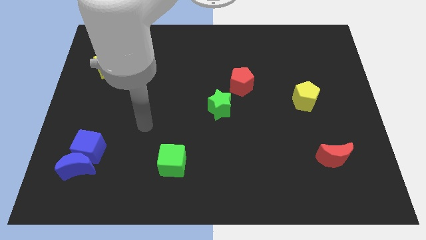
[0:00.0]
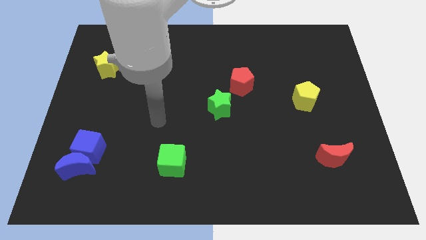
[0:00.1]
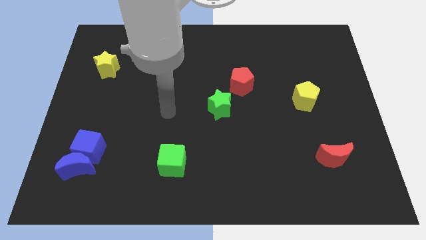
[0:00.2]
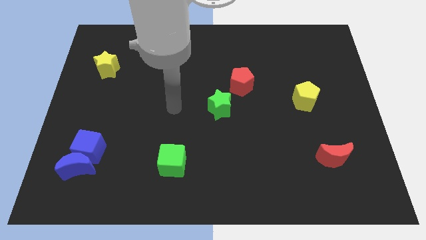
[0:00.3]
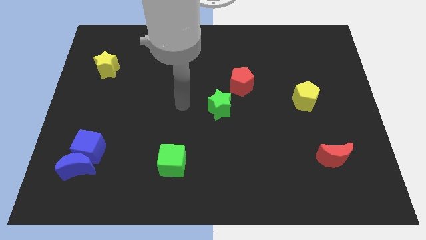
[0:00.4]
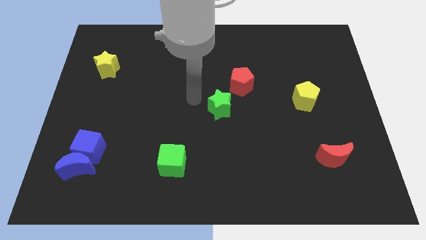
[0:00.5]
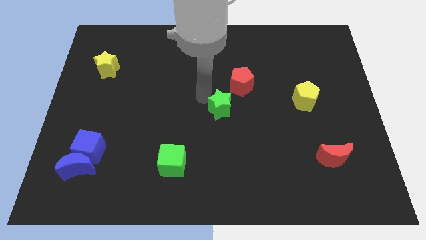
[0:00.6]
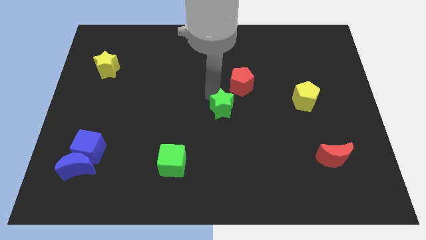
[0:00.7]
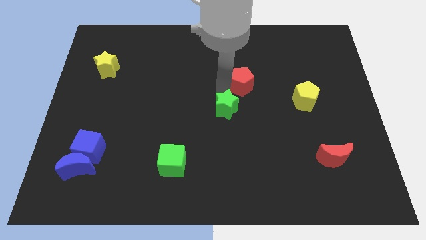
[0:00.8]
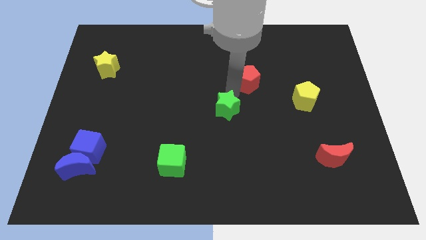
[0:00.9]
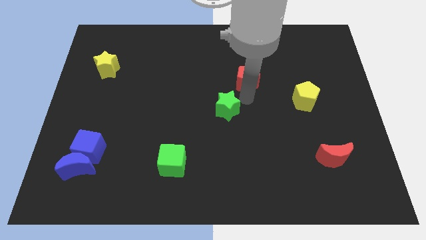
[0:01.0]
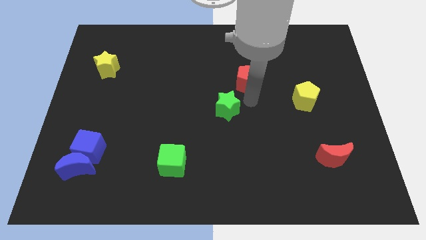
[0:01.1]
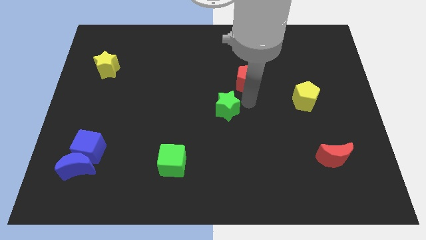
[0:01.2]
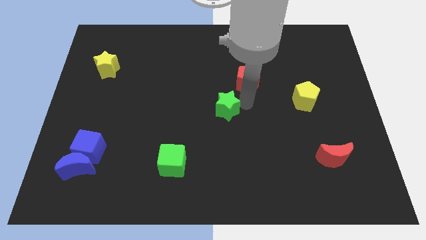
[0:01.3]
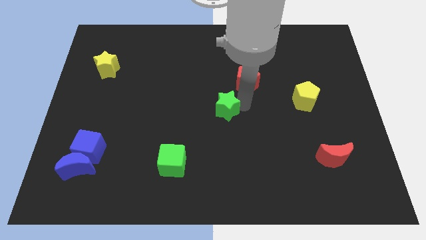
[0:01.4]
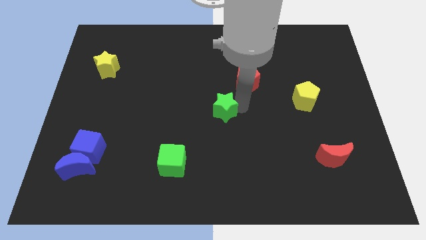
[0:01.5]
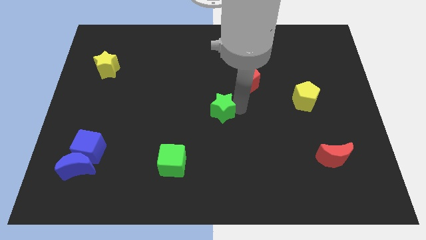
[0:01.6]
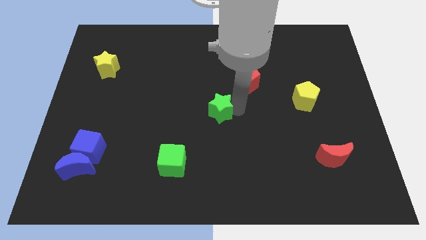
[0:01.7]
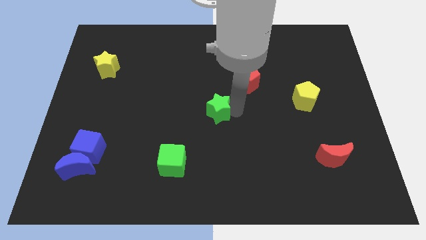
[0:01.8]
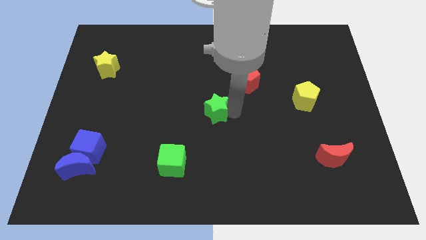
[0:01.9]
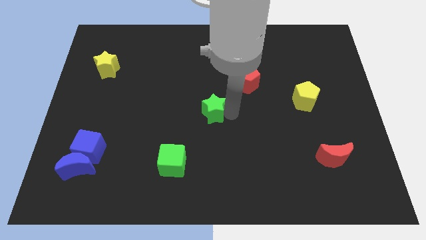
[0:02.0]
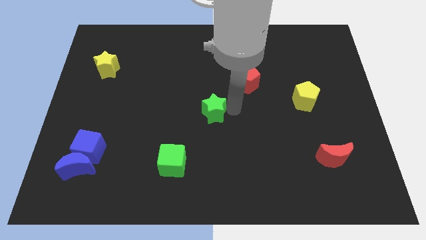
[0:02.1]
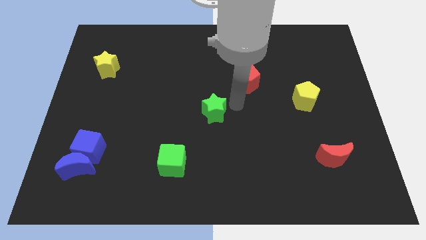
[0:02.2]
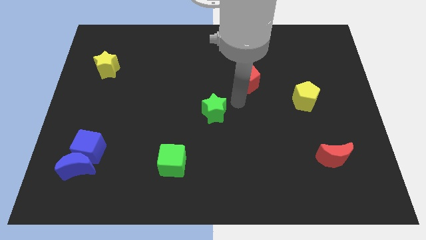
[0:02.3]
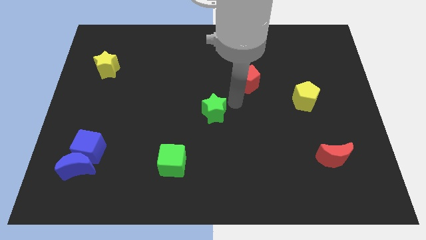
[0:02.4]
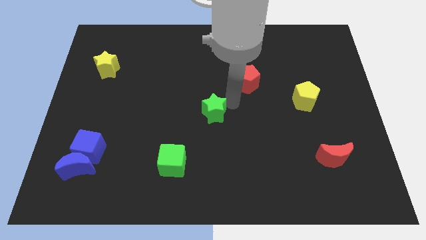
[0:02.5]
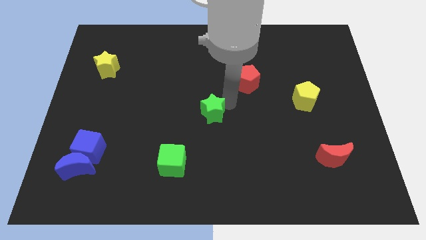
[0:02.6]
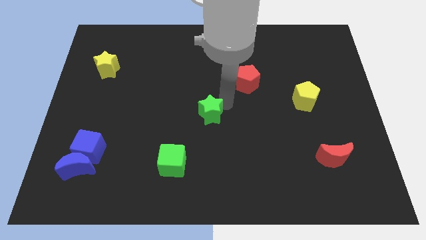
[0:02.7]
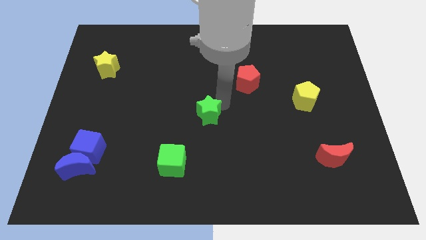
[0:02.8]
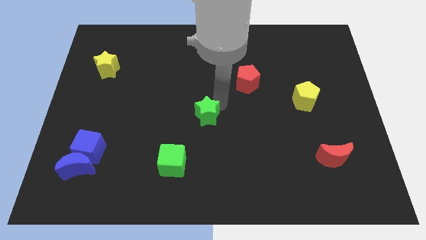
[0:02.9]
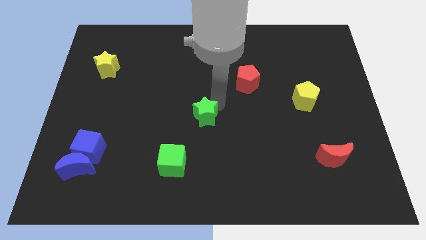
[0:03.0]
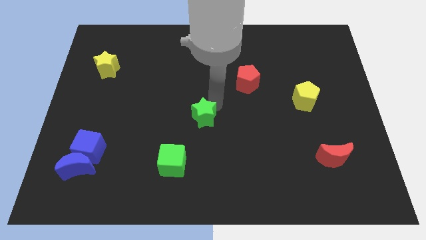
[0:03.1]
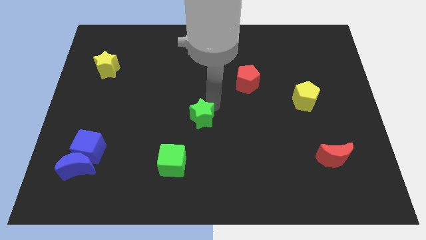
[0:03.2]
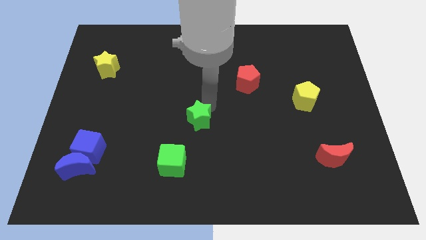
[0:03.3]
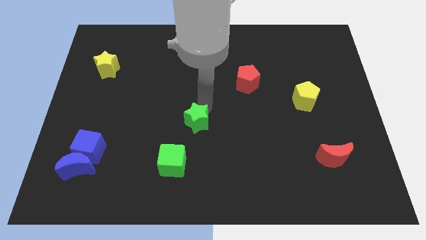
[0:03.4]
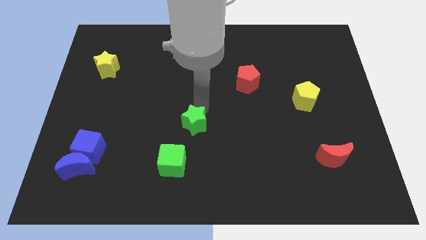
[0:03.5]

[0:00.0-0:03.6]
push the green star downwards and then to the left a little

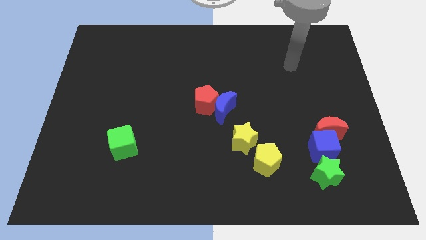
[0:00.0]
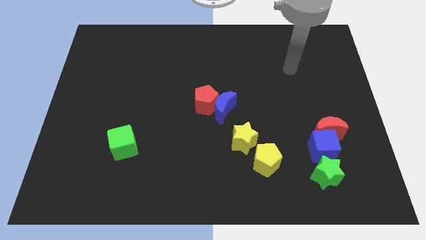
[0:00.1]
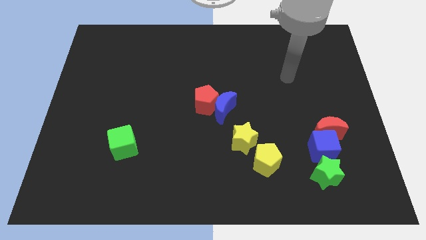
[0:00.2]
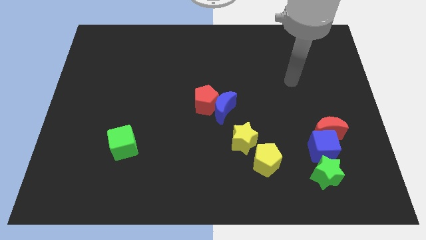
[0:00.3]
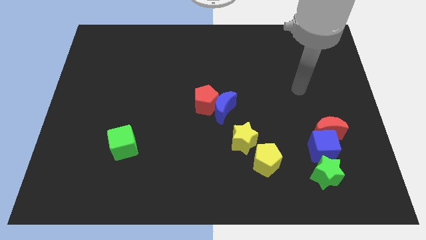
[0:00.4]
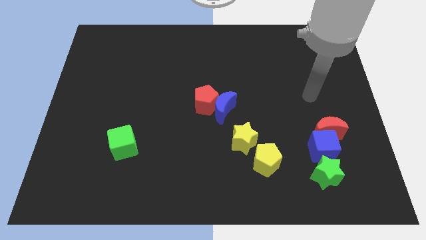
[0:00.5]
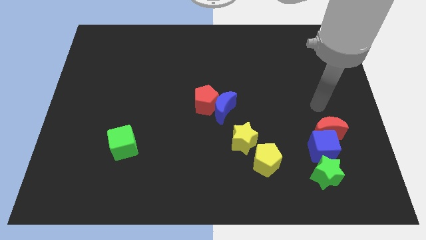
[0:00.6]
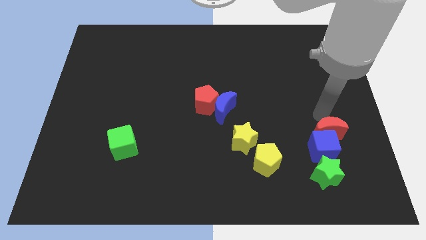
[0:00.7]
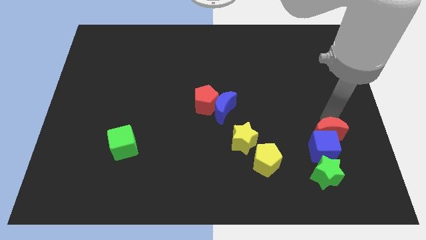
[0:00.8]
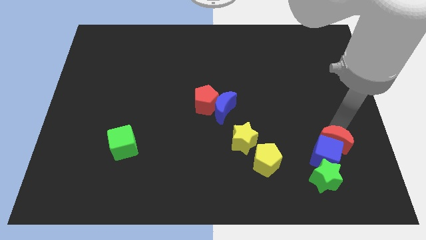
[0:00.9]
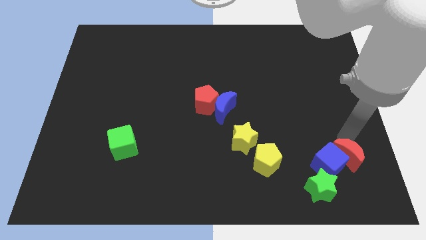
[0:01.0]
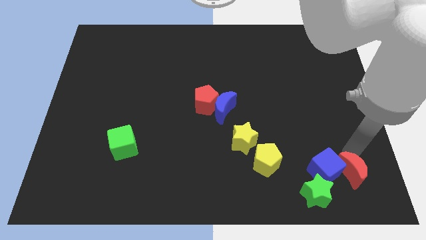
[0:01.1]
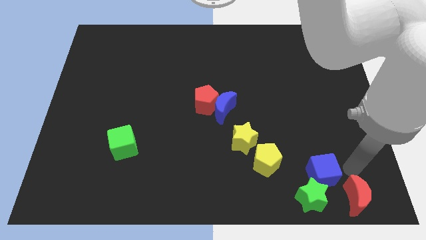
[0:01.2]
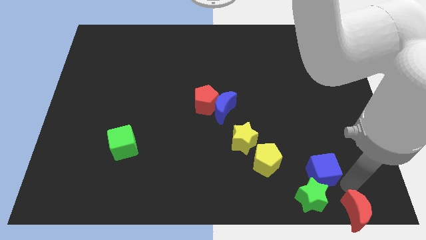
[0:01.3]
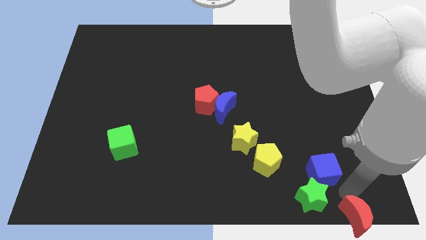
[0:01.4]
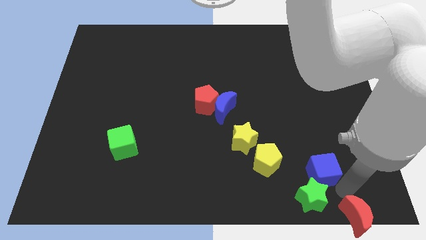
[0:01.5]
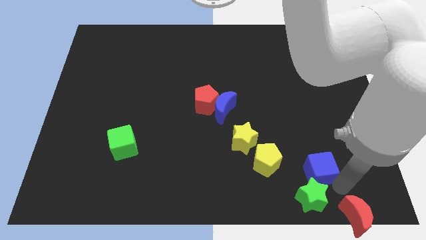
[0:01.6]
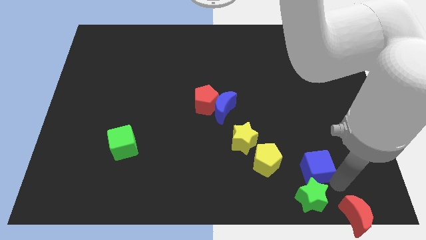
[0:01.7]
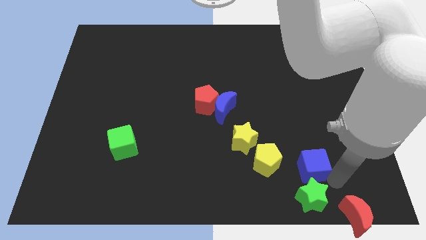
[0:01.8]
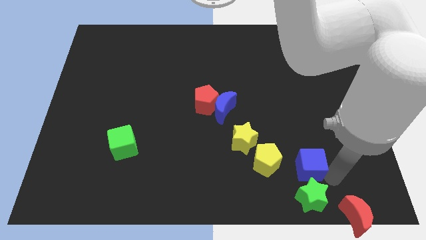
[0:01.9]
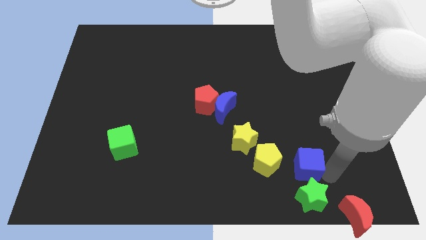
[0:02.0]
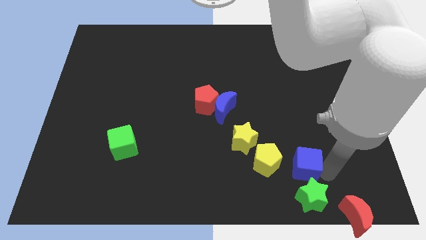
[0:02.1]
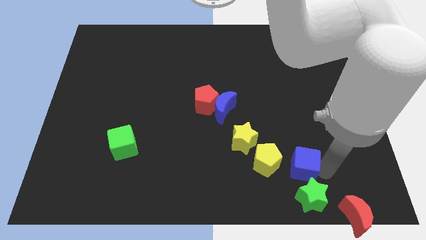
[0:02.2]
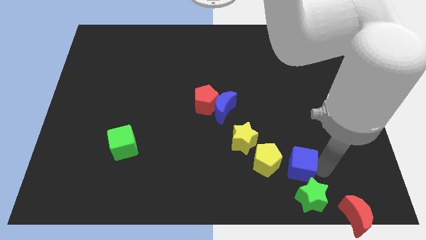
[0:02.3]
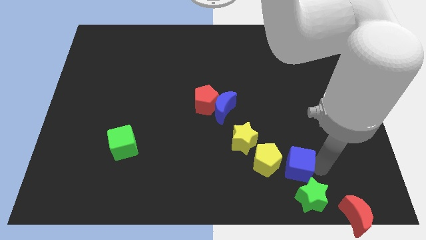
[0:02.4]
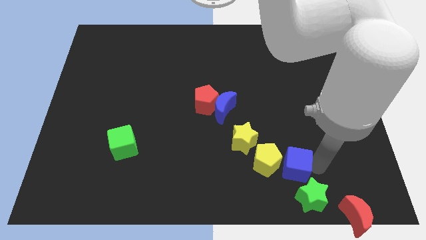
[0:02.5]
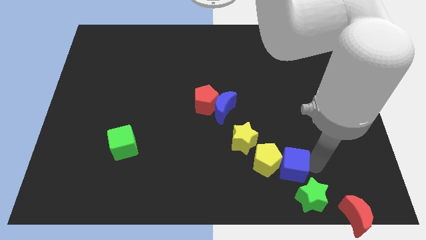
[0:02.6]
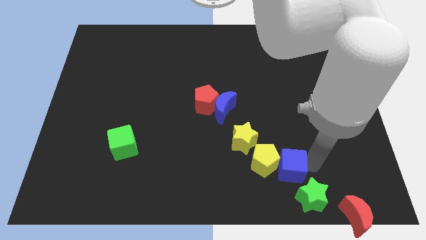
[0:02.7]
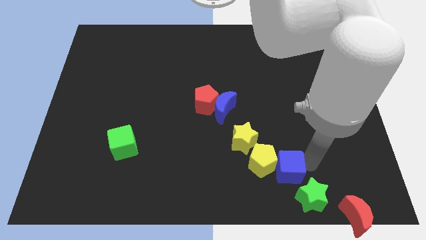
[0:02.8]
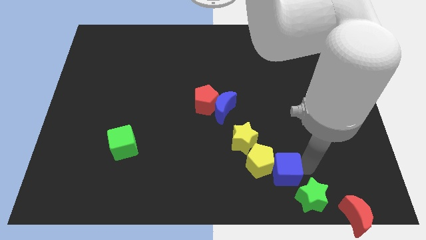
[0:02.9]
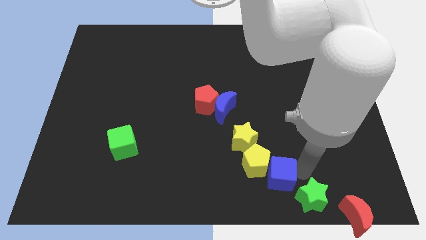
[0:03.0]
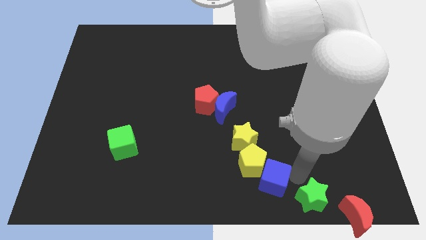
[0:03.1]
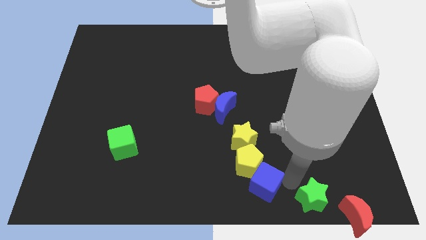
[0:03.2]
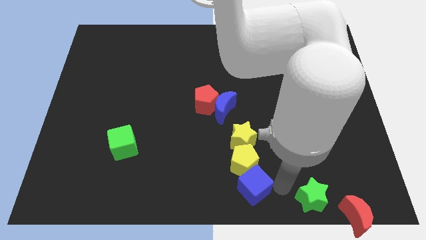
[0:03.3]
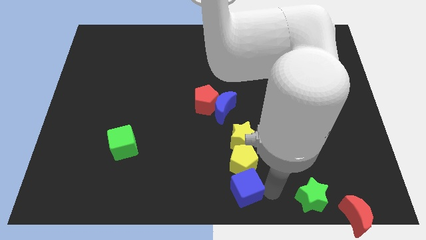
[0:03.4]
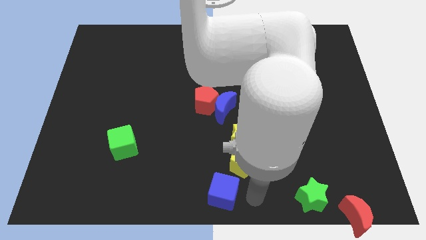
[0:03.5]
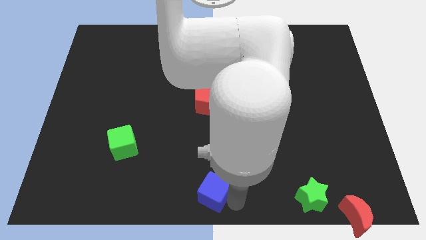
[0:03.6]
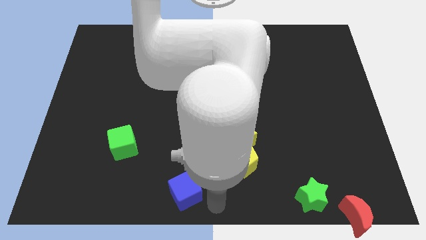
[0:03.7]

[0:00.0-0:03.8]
move the blue cube left

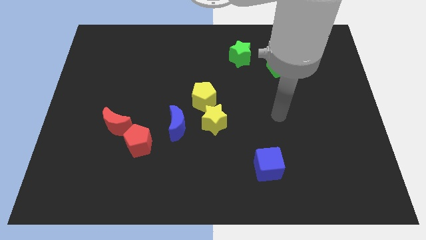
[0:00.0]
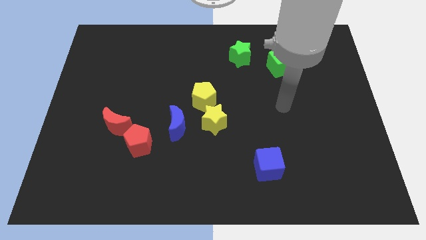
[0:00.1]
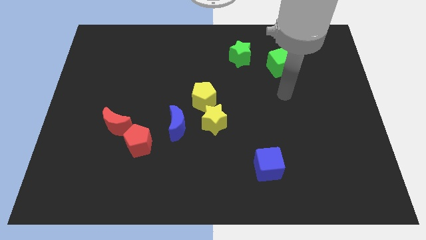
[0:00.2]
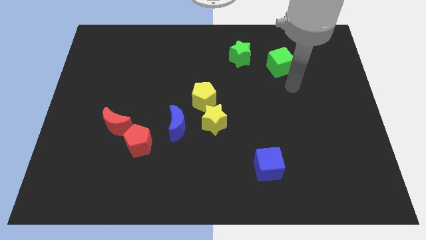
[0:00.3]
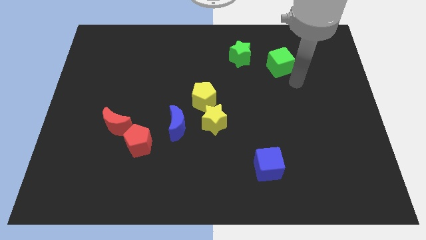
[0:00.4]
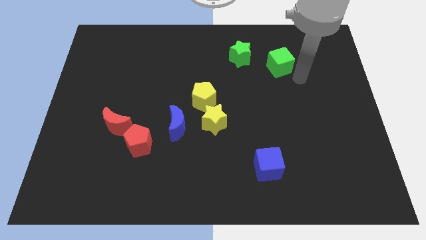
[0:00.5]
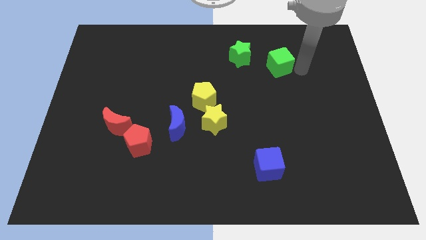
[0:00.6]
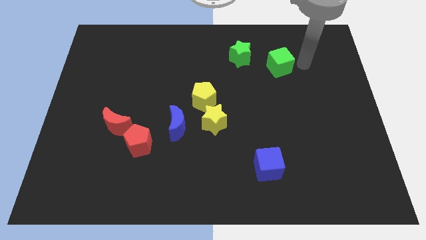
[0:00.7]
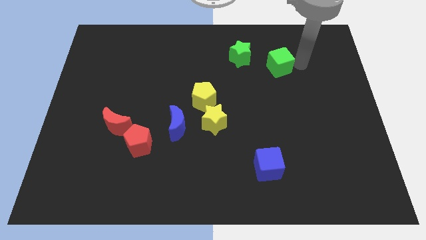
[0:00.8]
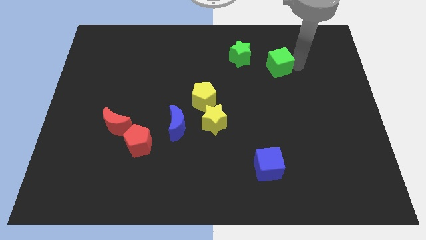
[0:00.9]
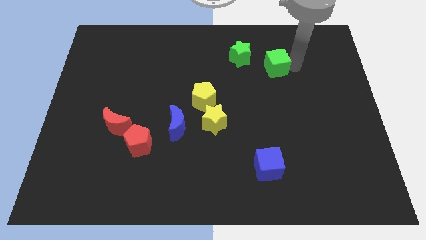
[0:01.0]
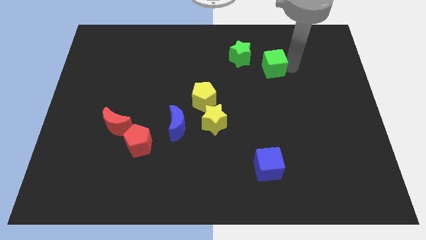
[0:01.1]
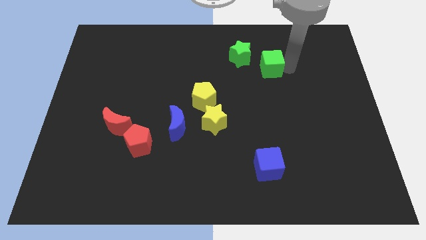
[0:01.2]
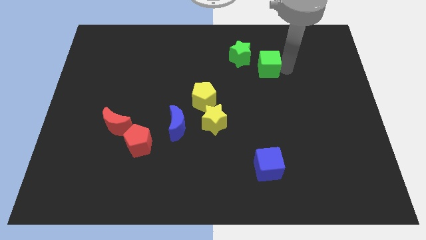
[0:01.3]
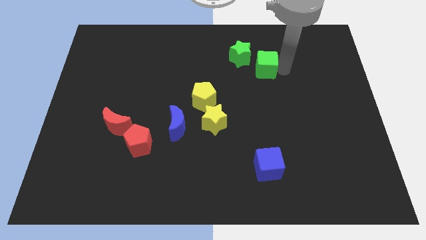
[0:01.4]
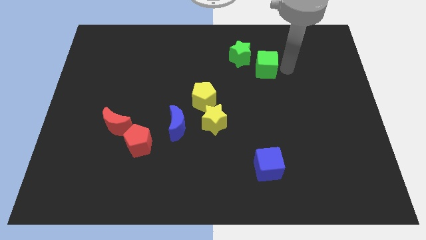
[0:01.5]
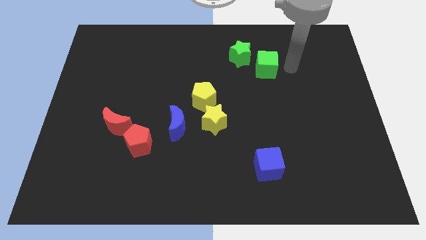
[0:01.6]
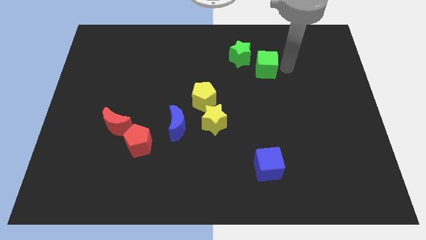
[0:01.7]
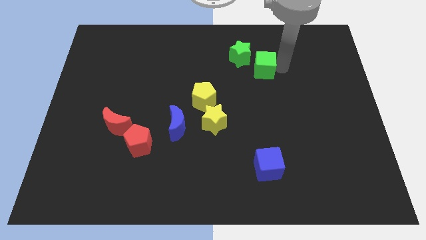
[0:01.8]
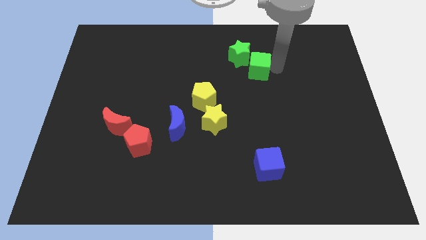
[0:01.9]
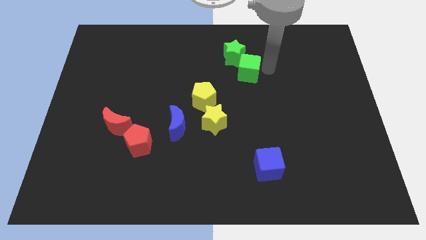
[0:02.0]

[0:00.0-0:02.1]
slightly push the green cube to the left
